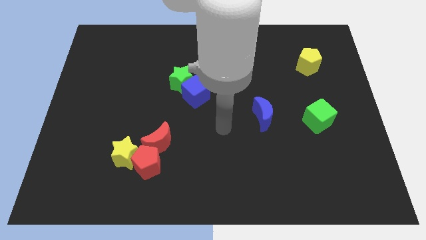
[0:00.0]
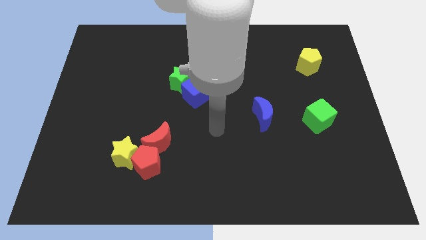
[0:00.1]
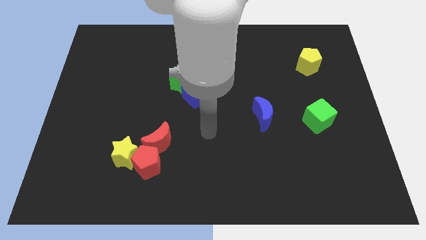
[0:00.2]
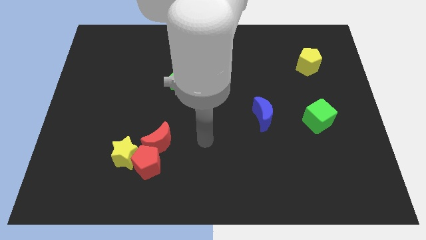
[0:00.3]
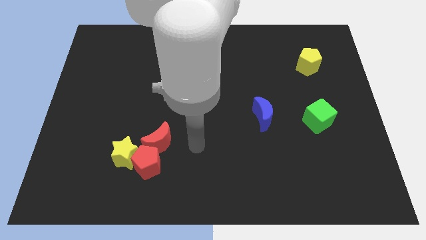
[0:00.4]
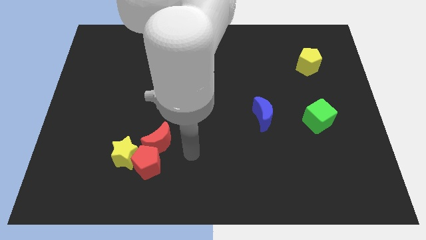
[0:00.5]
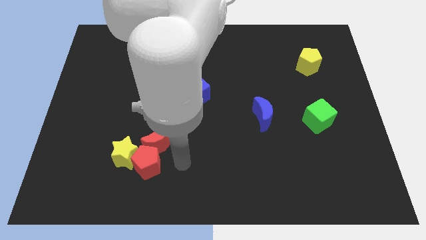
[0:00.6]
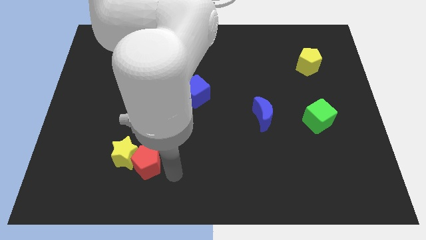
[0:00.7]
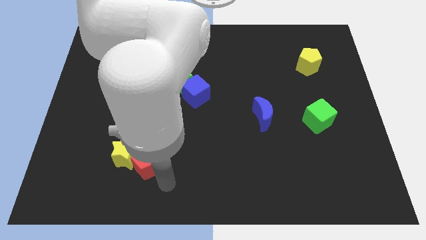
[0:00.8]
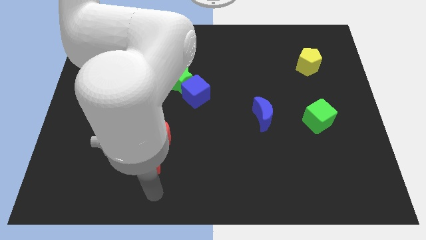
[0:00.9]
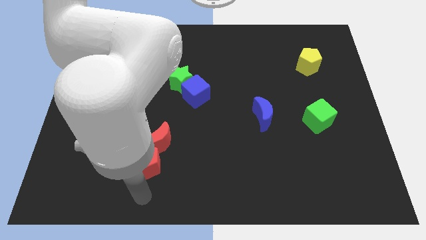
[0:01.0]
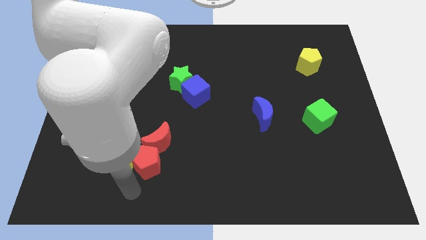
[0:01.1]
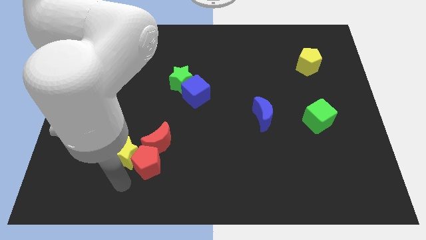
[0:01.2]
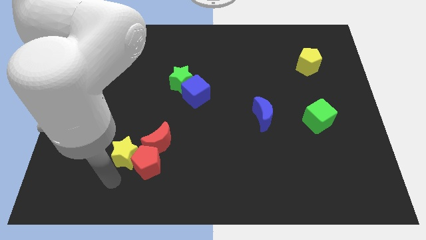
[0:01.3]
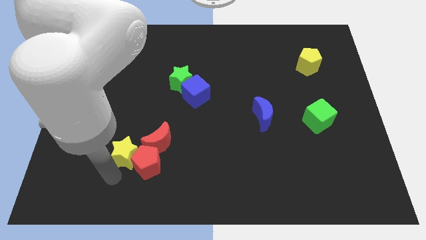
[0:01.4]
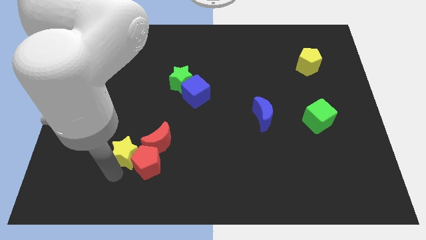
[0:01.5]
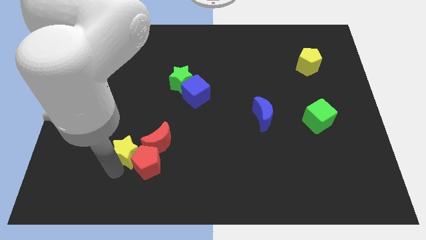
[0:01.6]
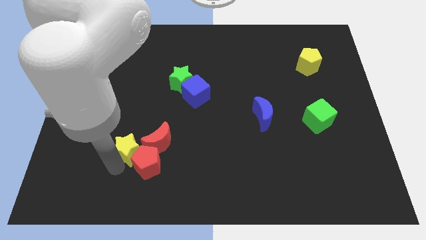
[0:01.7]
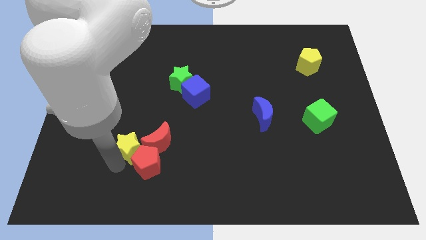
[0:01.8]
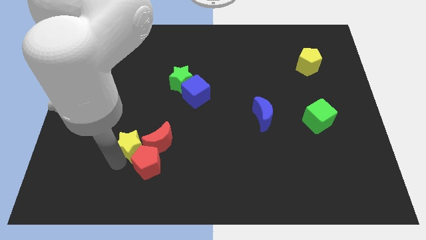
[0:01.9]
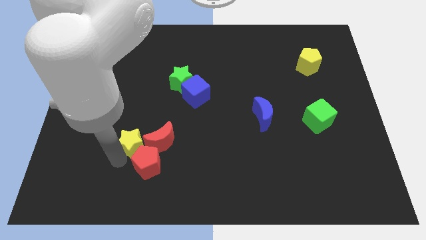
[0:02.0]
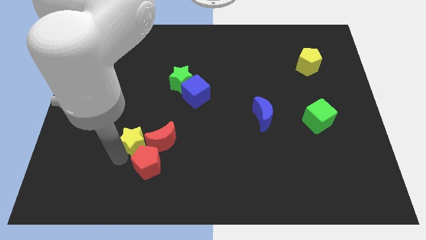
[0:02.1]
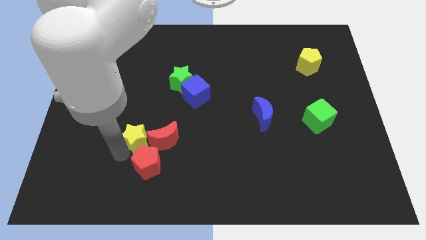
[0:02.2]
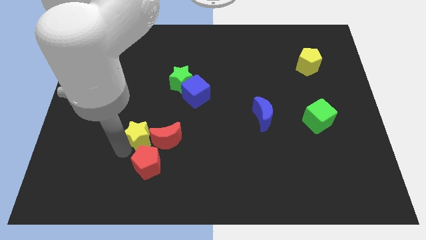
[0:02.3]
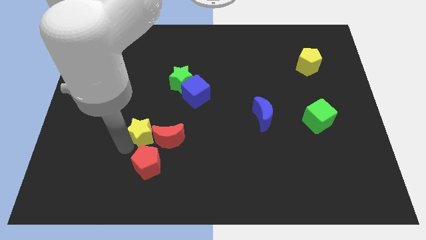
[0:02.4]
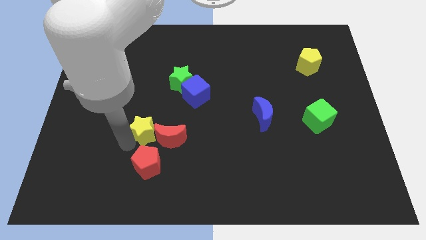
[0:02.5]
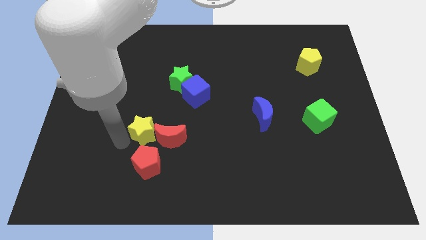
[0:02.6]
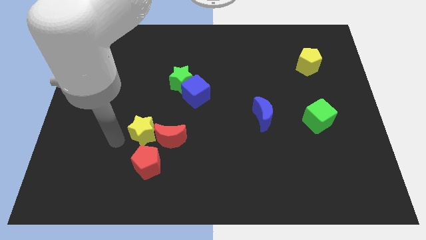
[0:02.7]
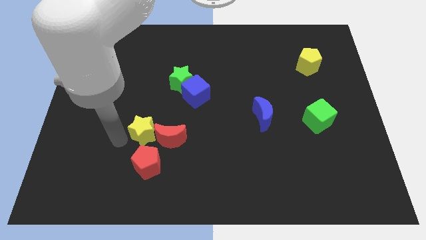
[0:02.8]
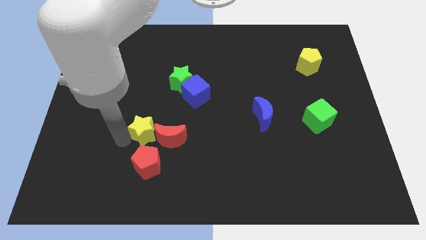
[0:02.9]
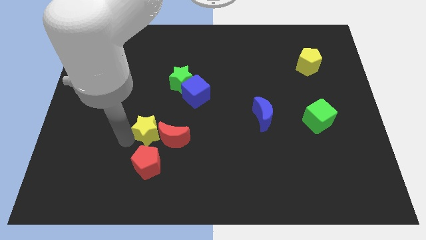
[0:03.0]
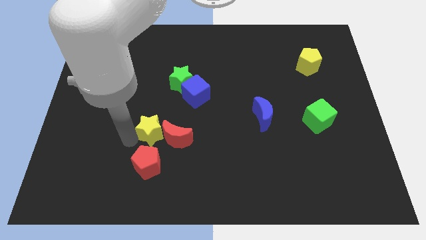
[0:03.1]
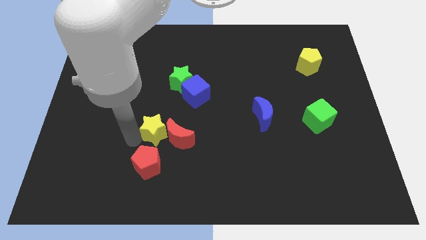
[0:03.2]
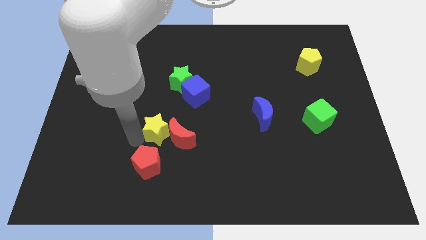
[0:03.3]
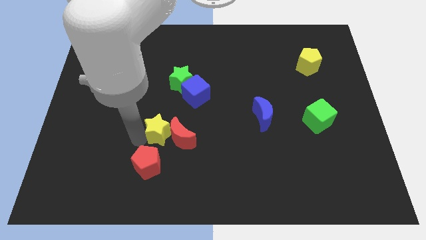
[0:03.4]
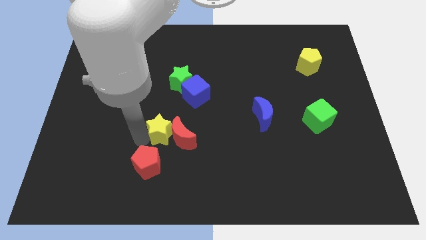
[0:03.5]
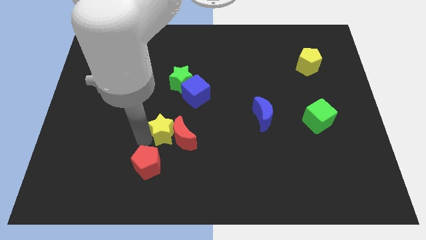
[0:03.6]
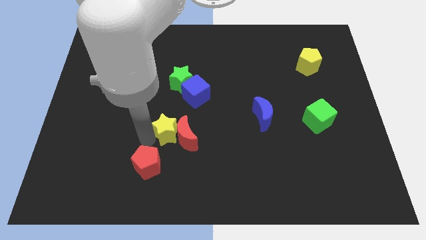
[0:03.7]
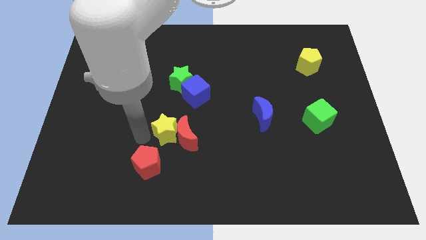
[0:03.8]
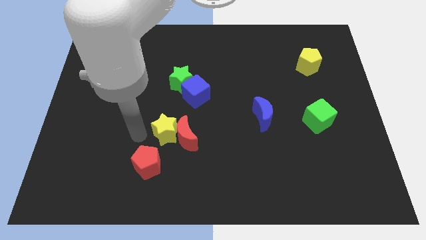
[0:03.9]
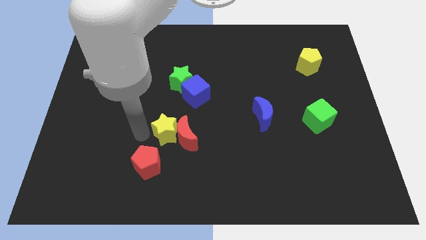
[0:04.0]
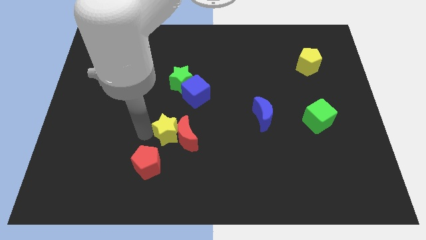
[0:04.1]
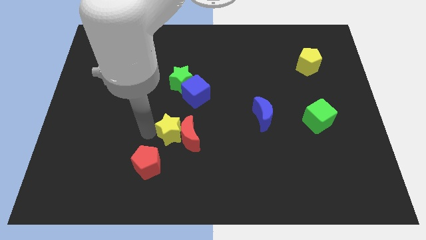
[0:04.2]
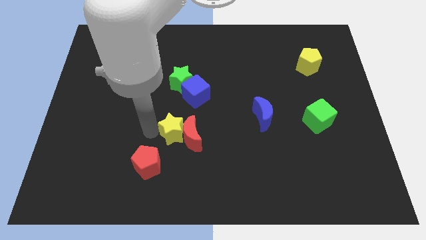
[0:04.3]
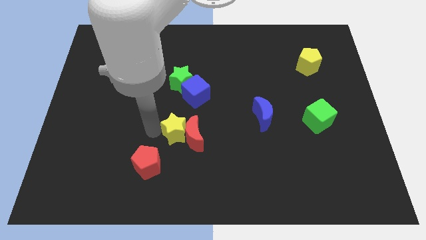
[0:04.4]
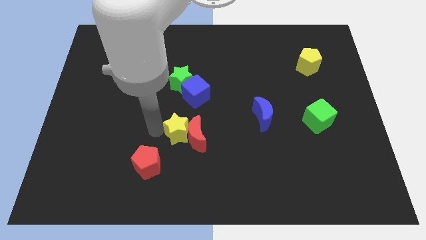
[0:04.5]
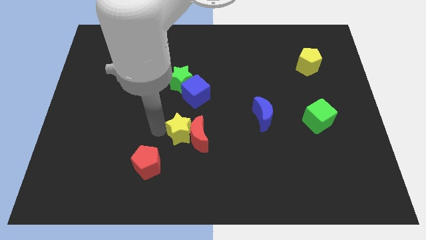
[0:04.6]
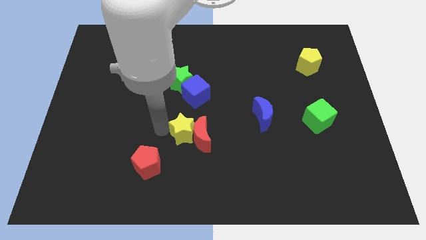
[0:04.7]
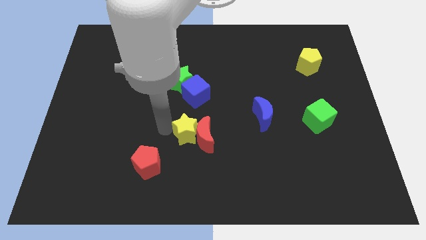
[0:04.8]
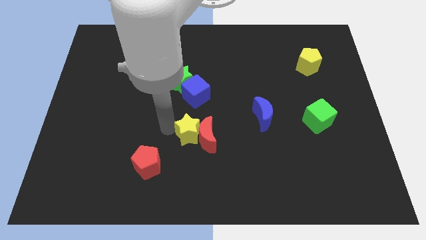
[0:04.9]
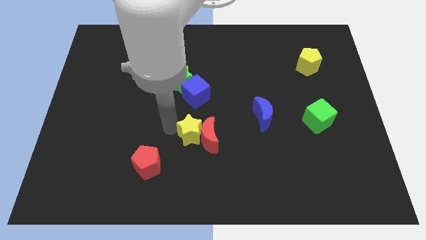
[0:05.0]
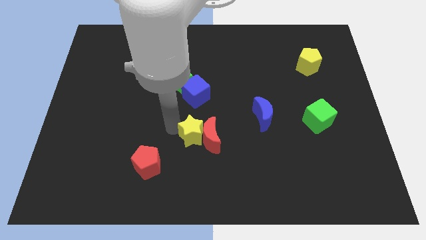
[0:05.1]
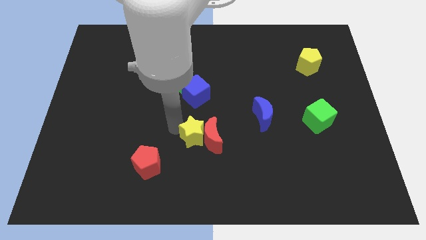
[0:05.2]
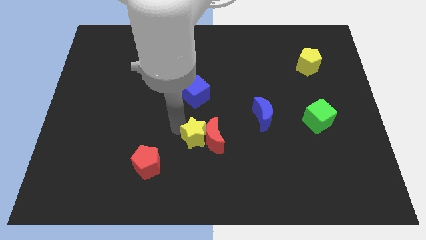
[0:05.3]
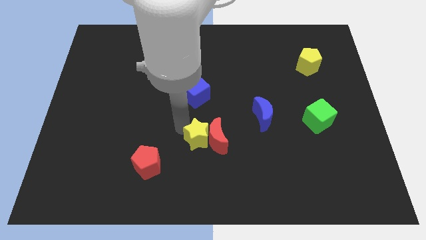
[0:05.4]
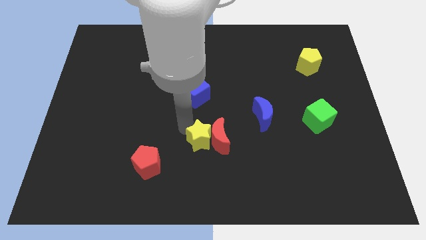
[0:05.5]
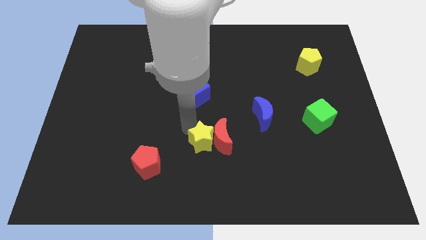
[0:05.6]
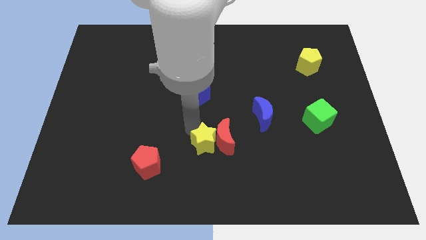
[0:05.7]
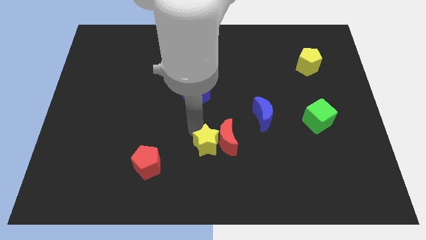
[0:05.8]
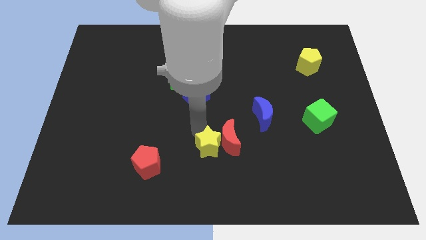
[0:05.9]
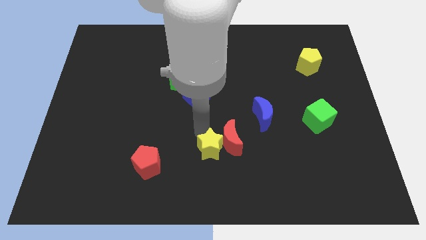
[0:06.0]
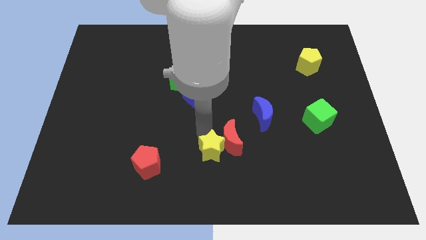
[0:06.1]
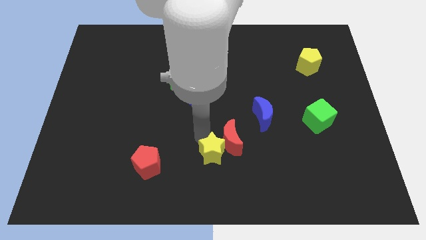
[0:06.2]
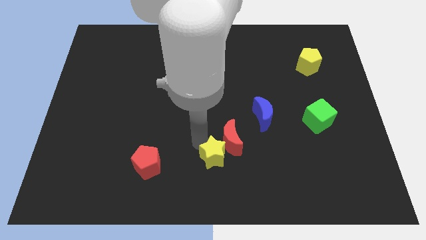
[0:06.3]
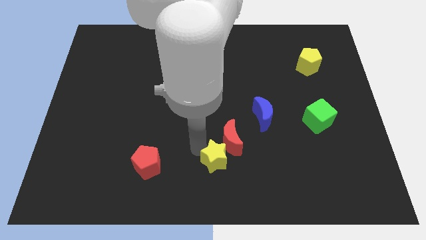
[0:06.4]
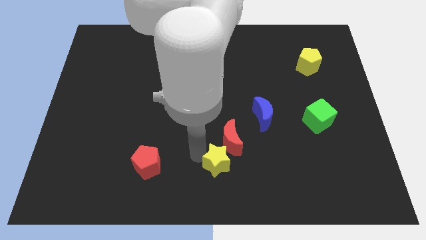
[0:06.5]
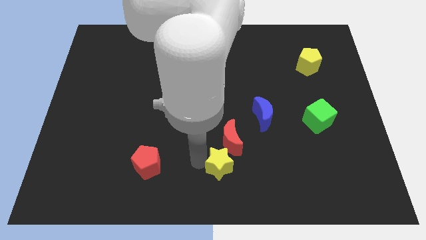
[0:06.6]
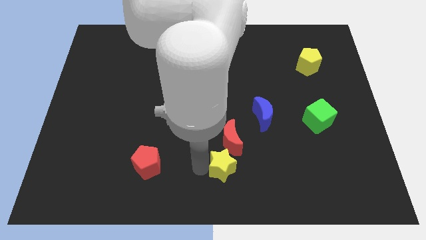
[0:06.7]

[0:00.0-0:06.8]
push the yellow star right

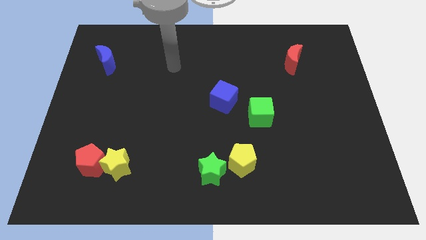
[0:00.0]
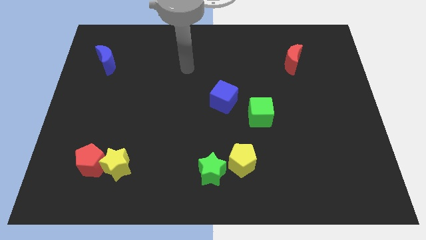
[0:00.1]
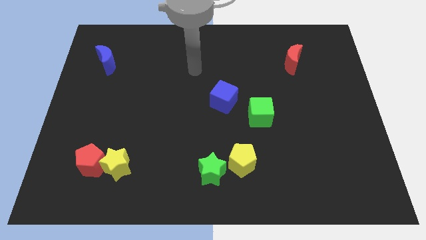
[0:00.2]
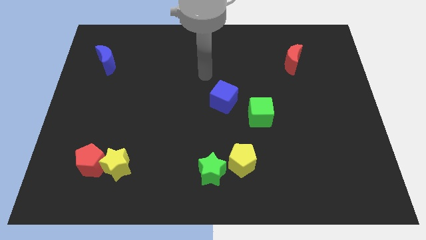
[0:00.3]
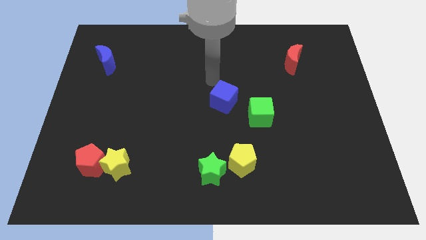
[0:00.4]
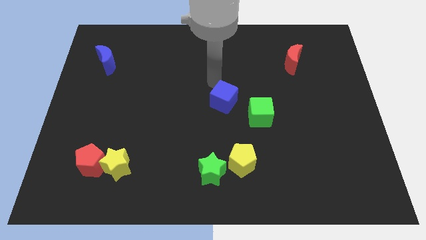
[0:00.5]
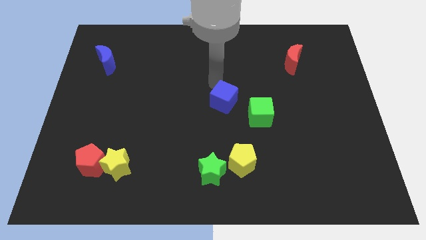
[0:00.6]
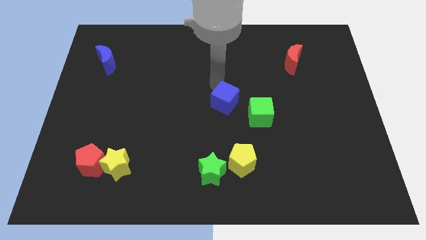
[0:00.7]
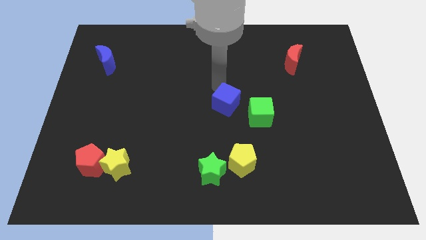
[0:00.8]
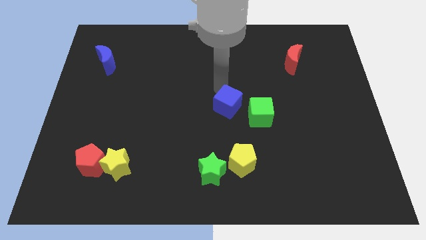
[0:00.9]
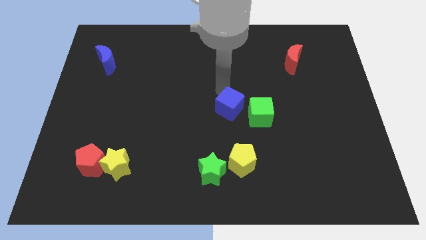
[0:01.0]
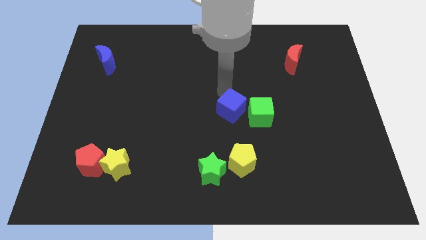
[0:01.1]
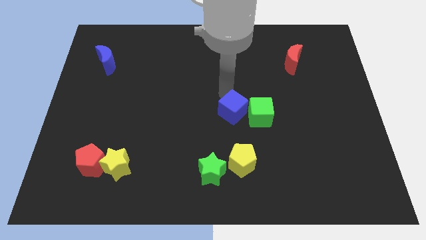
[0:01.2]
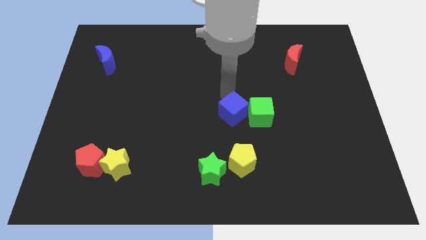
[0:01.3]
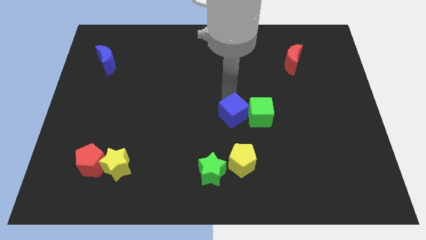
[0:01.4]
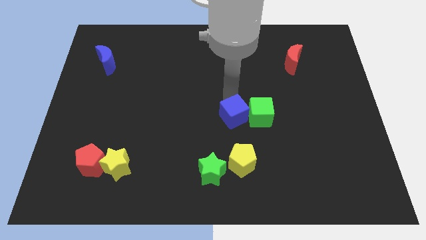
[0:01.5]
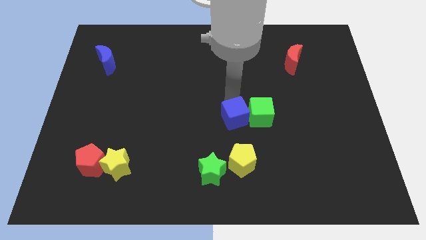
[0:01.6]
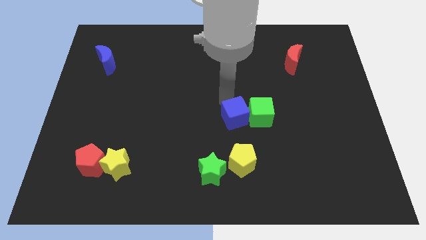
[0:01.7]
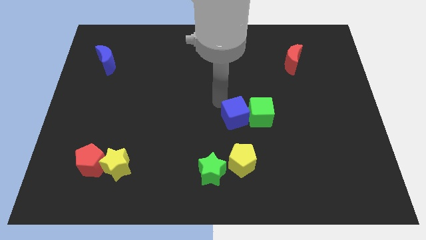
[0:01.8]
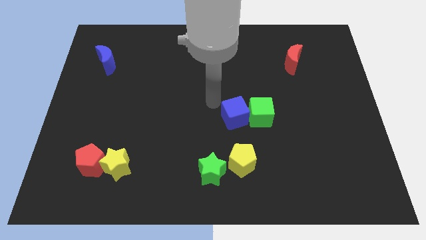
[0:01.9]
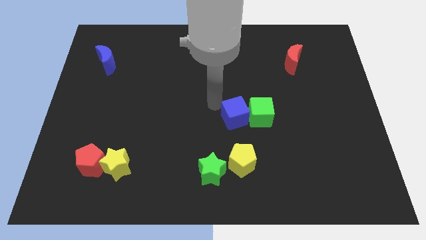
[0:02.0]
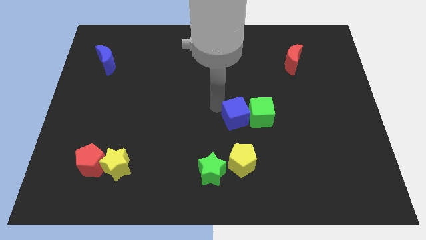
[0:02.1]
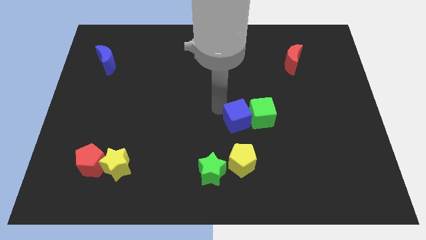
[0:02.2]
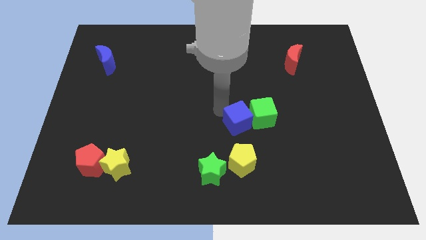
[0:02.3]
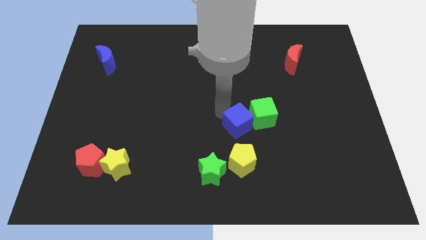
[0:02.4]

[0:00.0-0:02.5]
slightly slide the blue cube downwards and right
